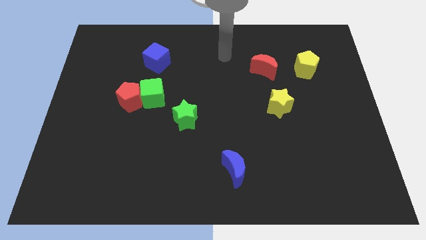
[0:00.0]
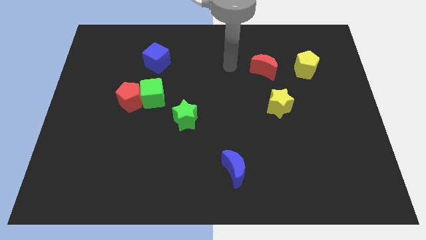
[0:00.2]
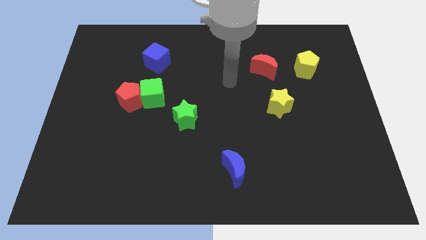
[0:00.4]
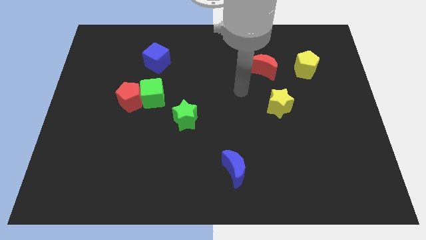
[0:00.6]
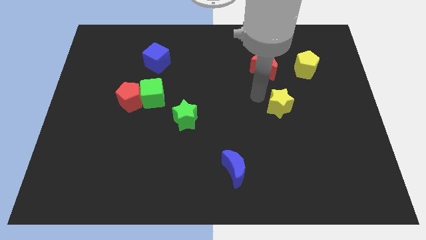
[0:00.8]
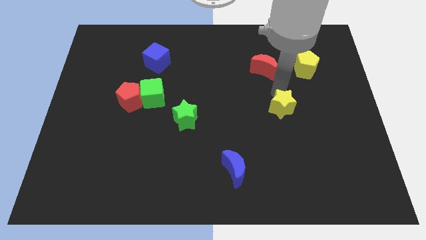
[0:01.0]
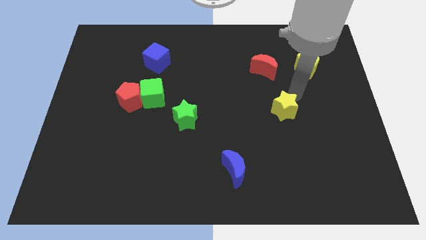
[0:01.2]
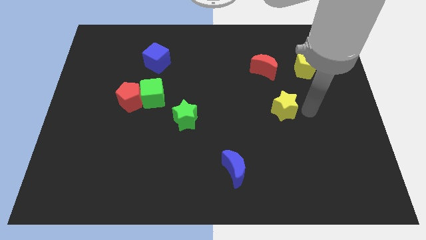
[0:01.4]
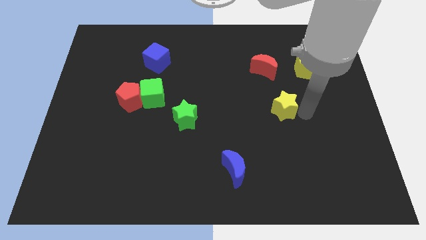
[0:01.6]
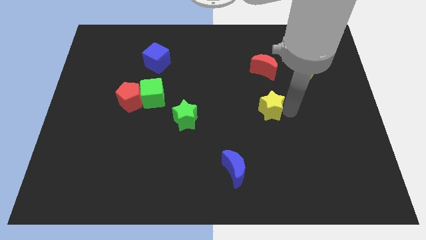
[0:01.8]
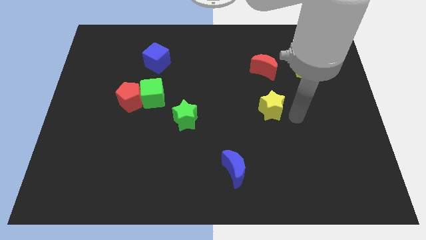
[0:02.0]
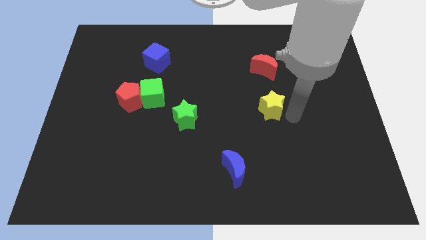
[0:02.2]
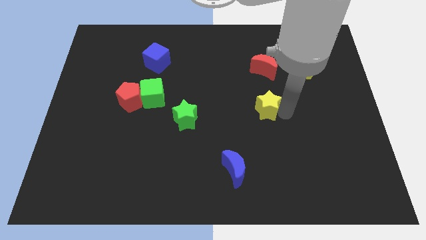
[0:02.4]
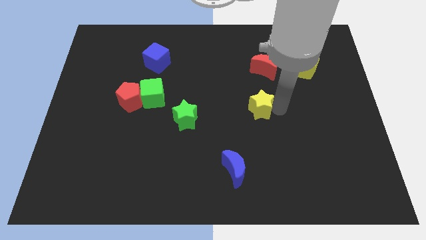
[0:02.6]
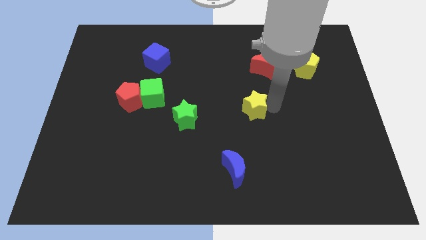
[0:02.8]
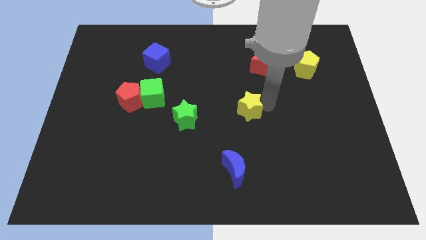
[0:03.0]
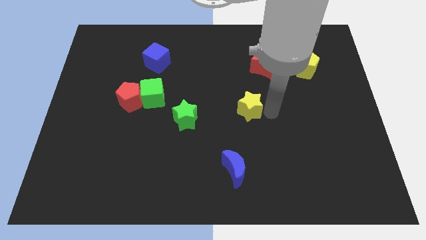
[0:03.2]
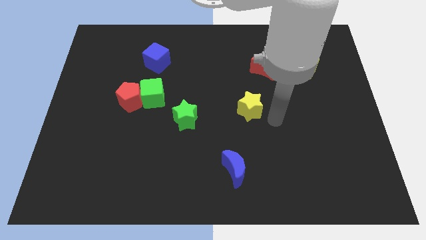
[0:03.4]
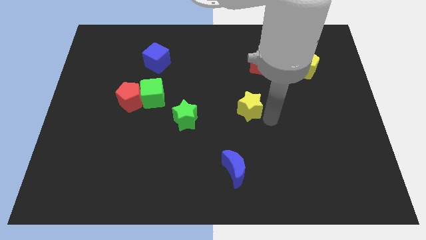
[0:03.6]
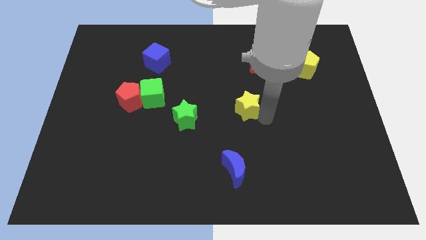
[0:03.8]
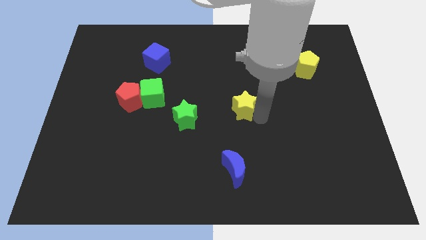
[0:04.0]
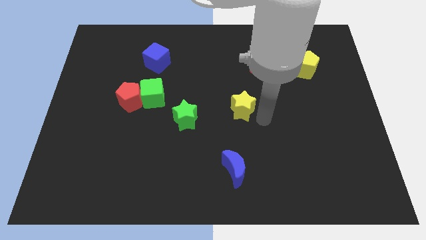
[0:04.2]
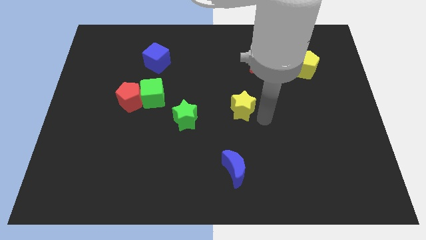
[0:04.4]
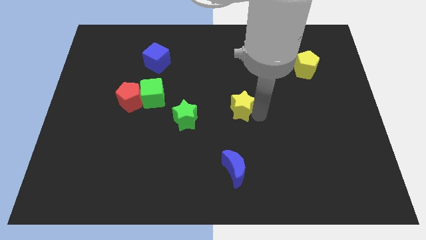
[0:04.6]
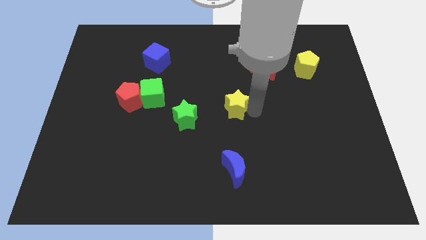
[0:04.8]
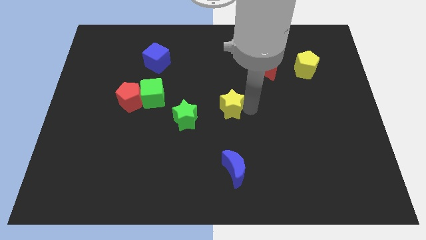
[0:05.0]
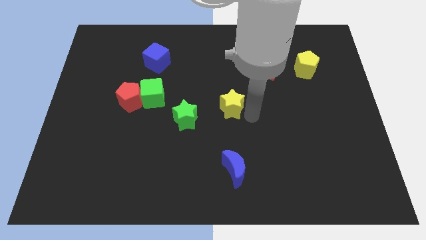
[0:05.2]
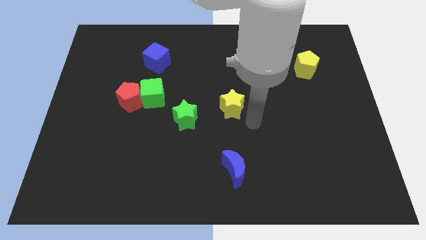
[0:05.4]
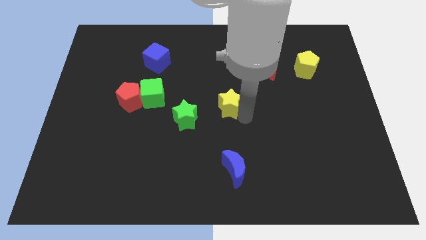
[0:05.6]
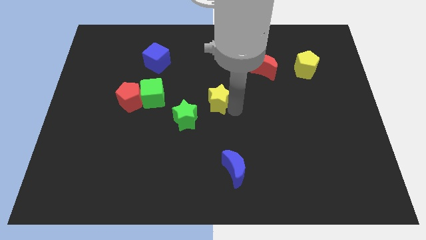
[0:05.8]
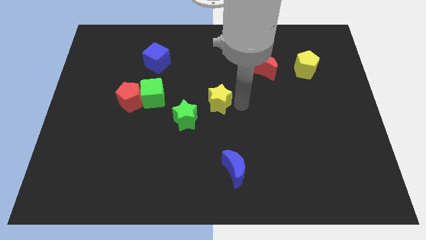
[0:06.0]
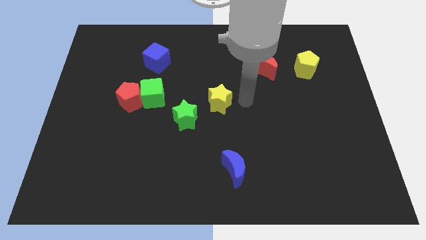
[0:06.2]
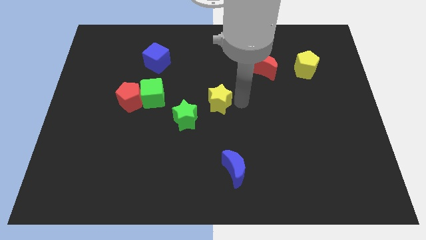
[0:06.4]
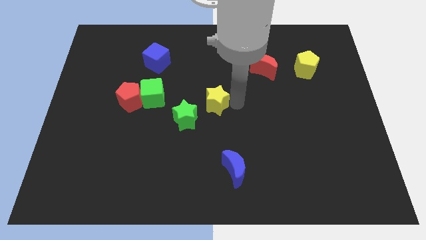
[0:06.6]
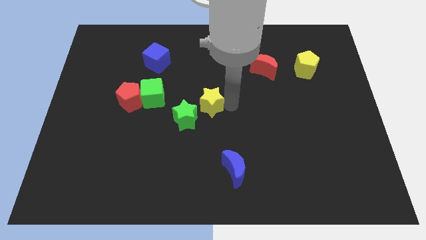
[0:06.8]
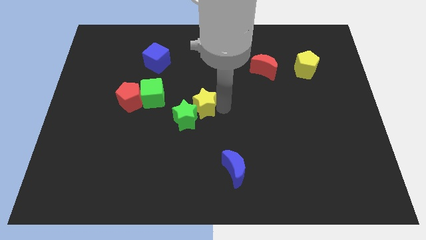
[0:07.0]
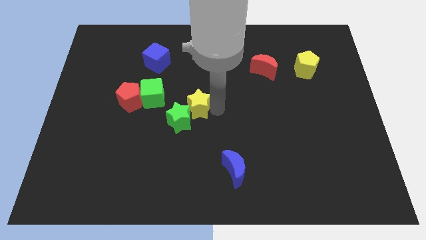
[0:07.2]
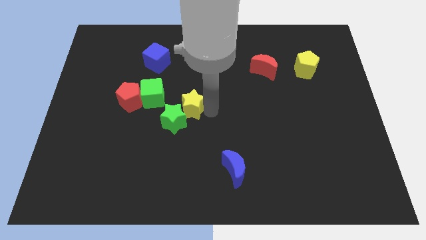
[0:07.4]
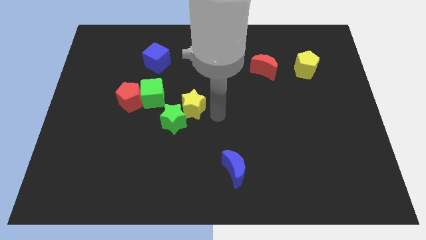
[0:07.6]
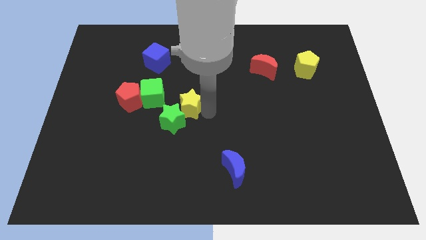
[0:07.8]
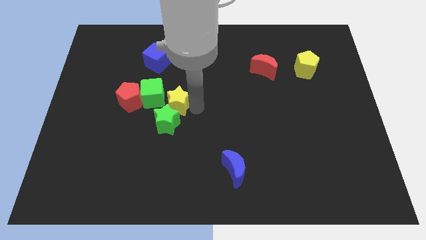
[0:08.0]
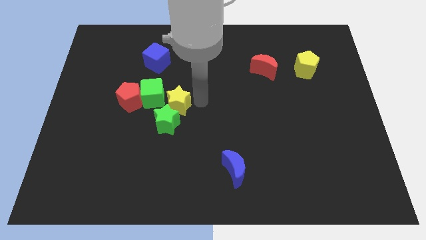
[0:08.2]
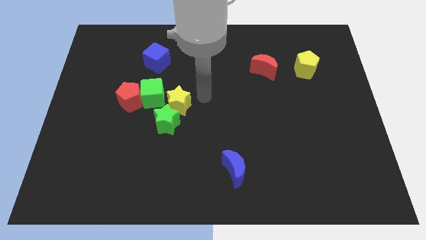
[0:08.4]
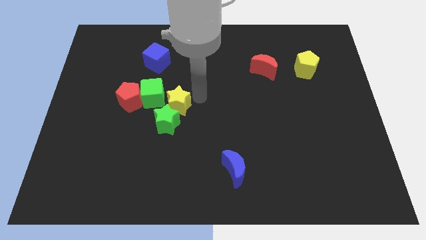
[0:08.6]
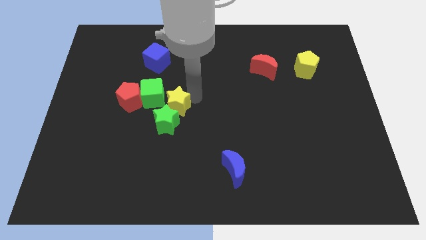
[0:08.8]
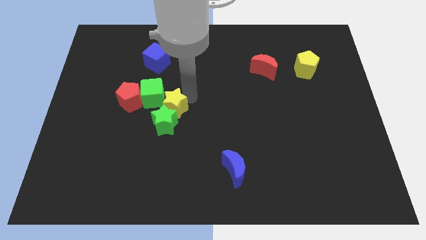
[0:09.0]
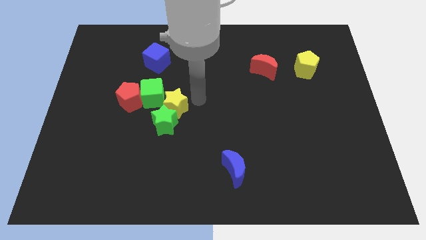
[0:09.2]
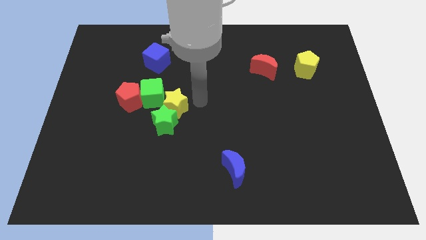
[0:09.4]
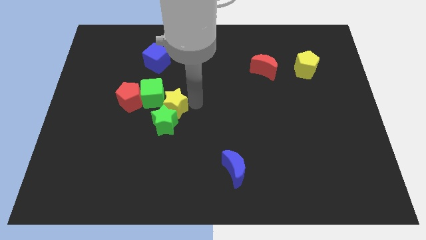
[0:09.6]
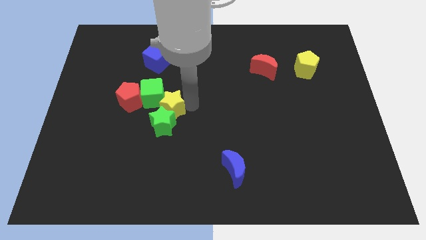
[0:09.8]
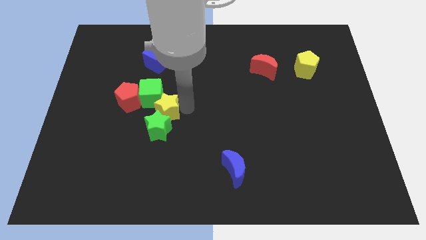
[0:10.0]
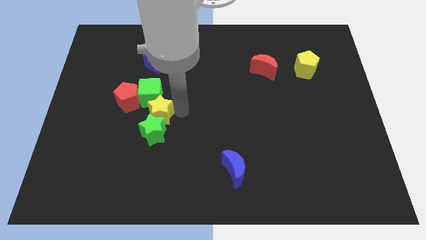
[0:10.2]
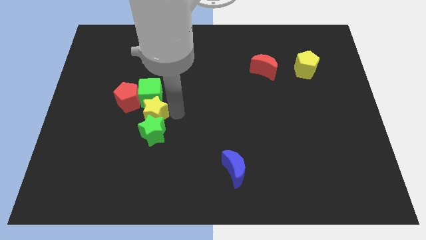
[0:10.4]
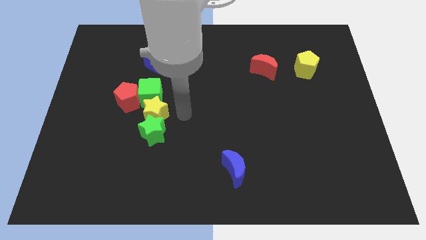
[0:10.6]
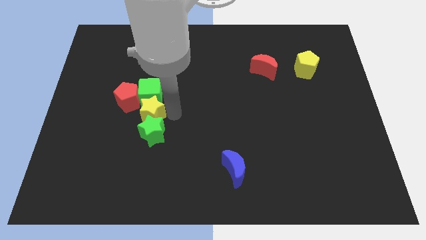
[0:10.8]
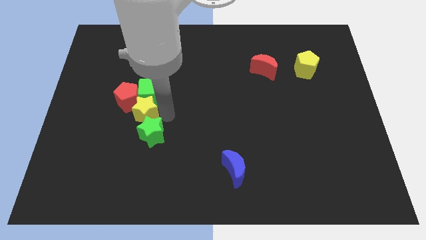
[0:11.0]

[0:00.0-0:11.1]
slide the yellow star to the red pentagon

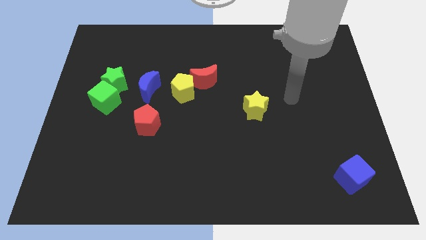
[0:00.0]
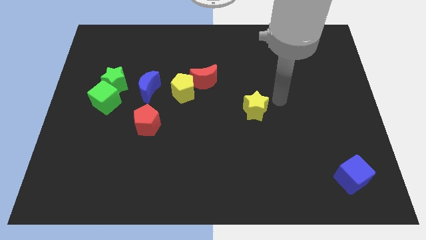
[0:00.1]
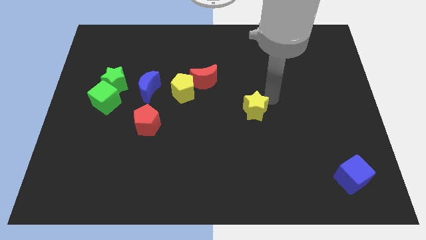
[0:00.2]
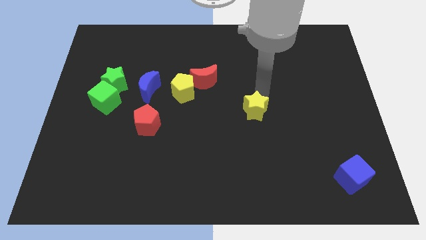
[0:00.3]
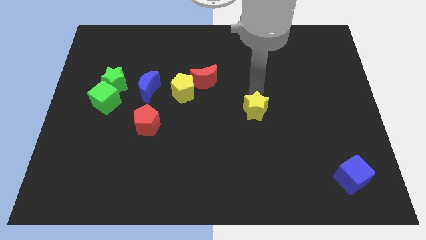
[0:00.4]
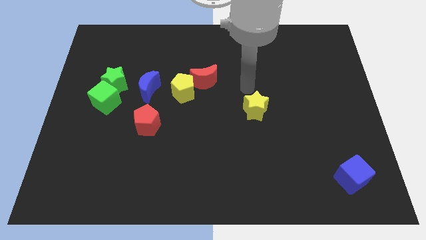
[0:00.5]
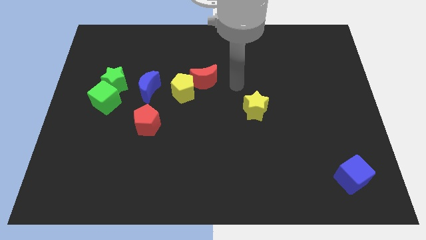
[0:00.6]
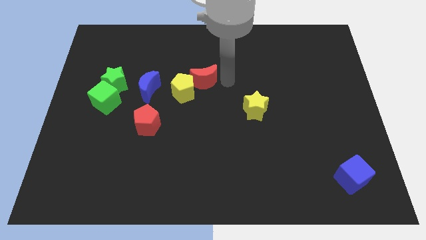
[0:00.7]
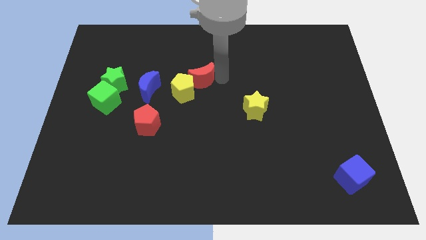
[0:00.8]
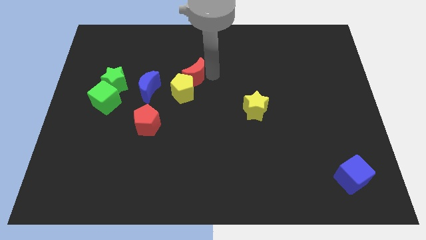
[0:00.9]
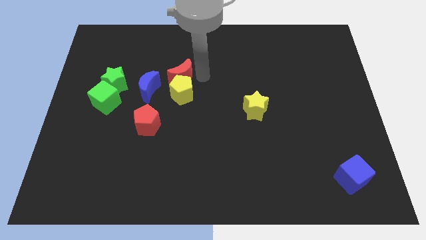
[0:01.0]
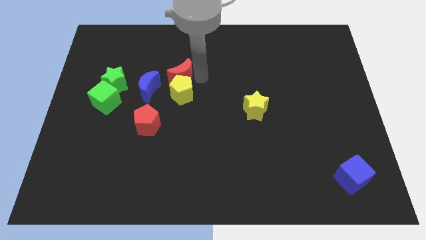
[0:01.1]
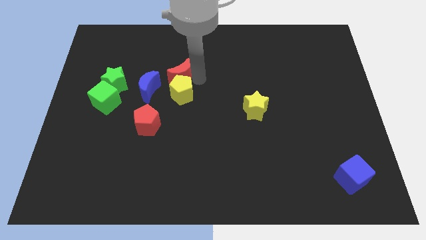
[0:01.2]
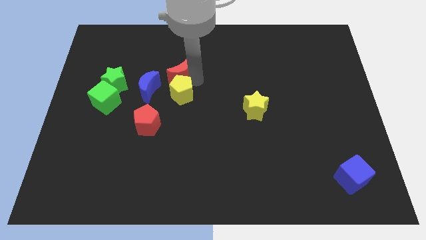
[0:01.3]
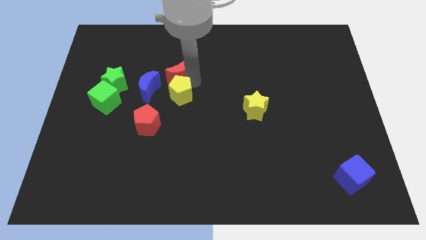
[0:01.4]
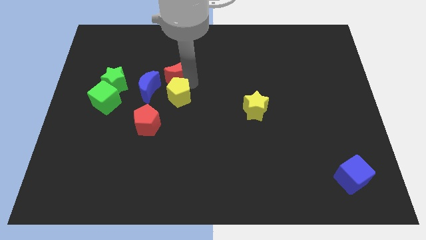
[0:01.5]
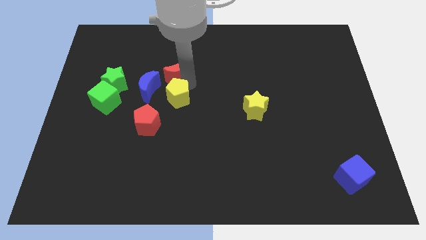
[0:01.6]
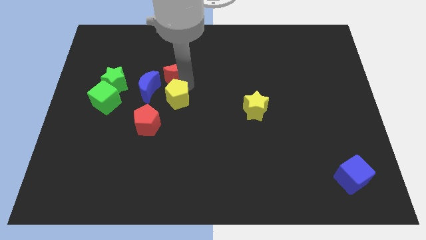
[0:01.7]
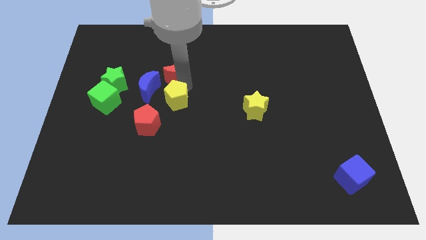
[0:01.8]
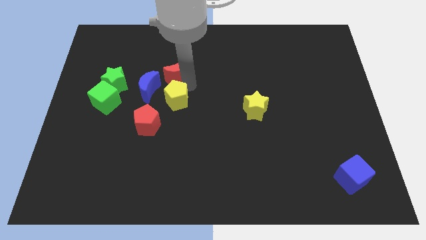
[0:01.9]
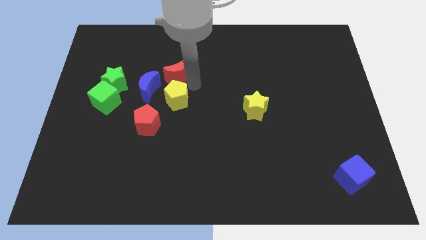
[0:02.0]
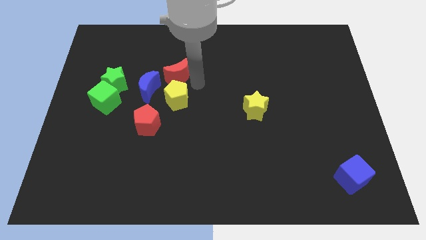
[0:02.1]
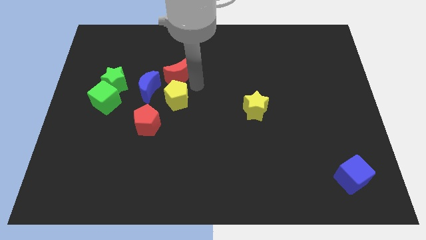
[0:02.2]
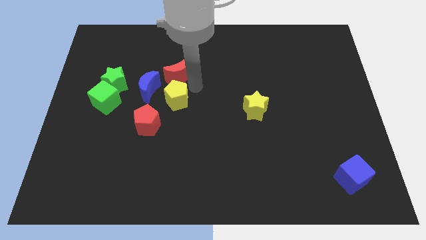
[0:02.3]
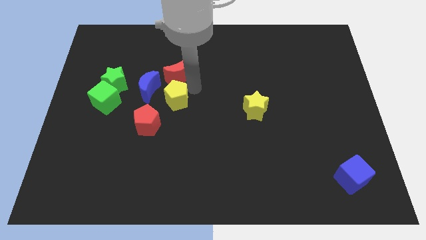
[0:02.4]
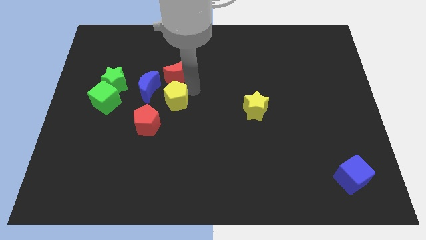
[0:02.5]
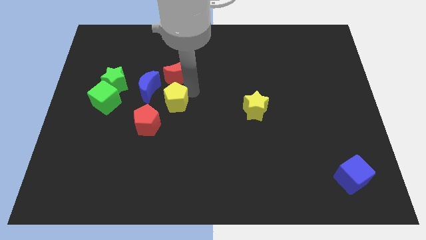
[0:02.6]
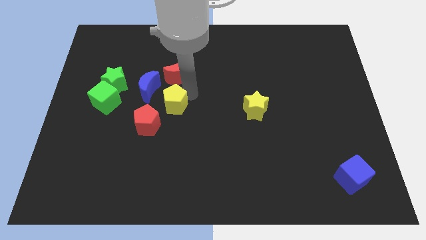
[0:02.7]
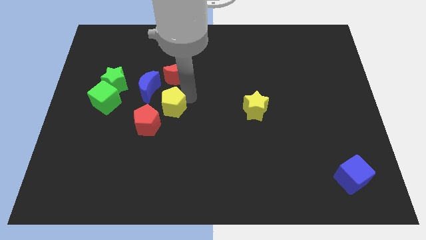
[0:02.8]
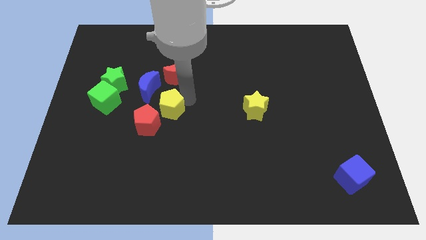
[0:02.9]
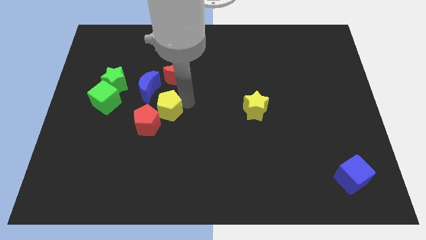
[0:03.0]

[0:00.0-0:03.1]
push the yellow pentagon close to the red pentagon
